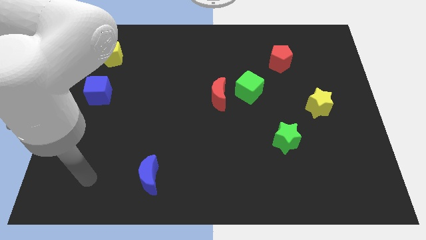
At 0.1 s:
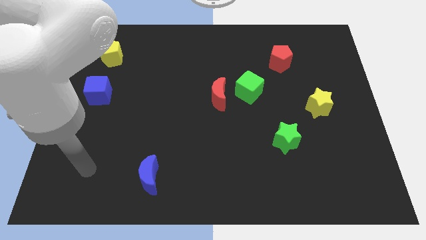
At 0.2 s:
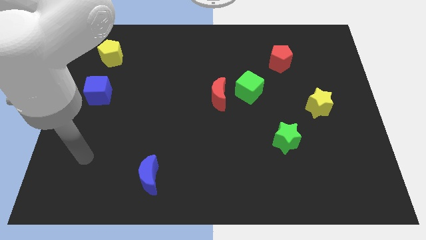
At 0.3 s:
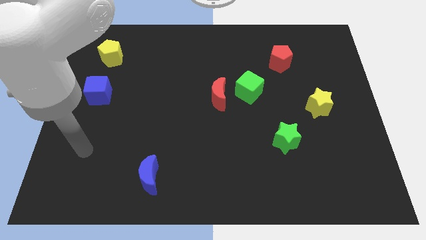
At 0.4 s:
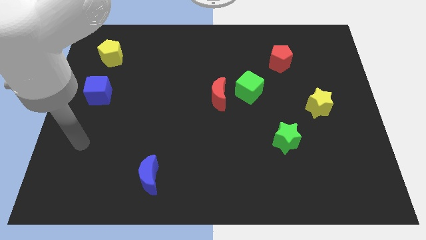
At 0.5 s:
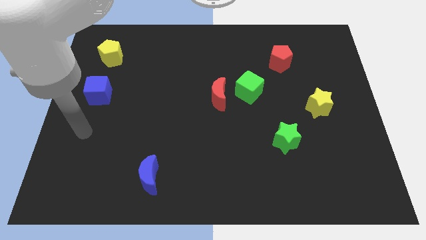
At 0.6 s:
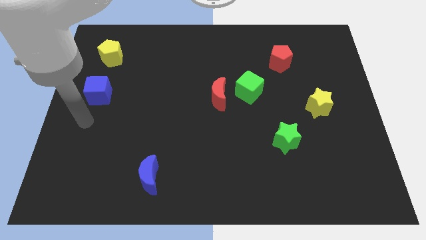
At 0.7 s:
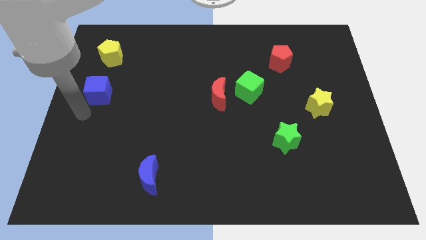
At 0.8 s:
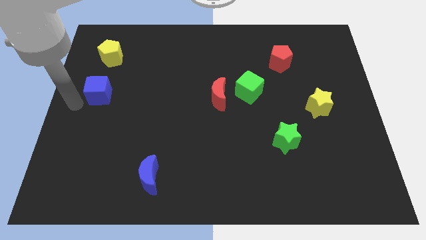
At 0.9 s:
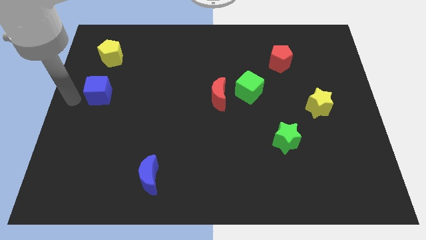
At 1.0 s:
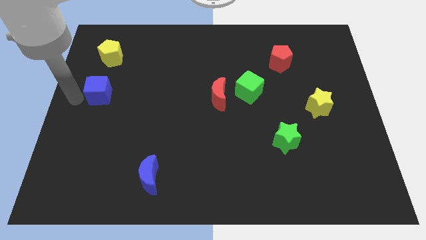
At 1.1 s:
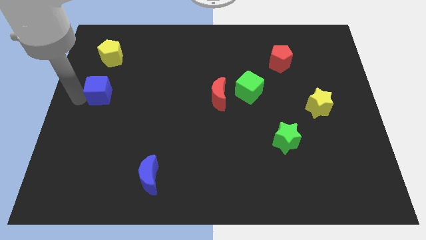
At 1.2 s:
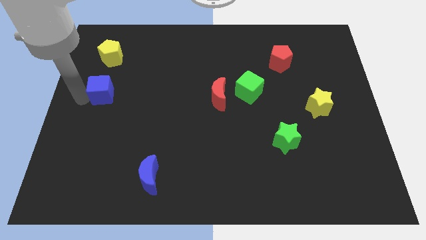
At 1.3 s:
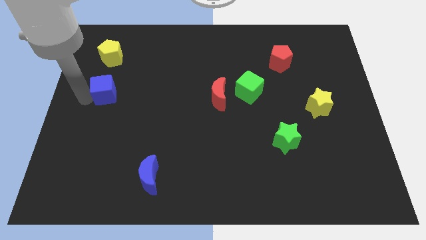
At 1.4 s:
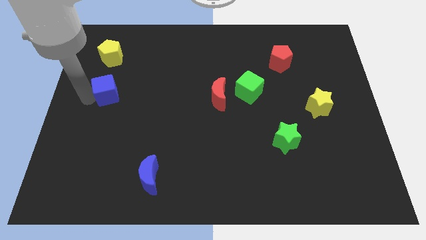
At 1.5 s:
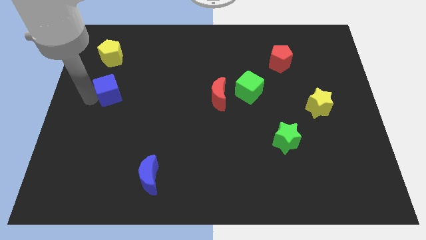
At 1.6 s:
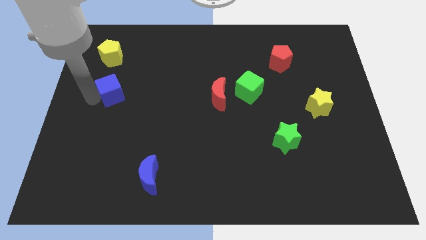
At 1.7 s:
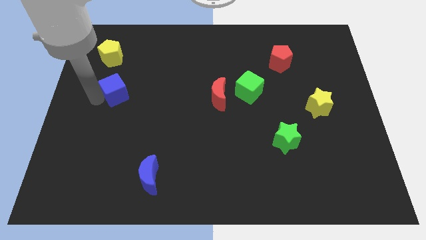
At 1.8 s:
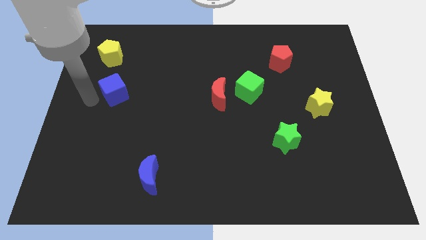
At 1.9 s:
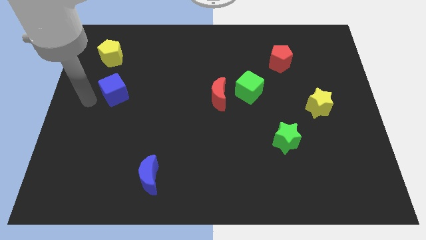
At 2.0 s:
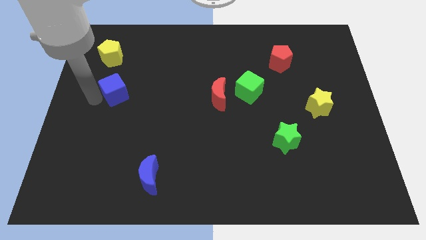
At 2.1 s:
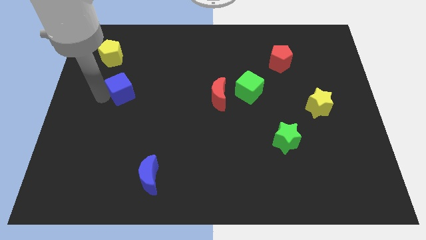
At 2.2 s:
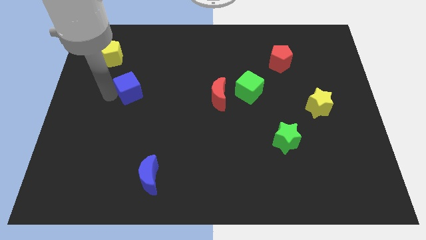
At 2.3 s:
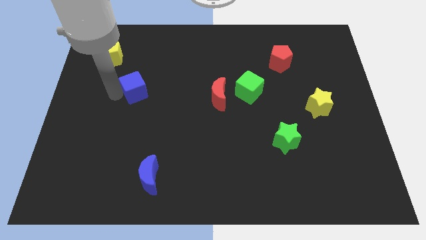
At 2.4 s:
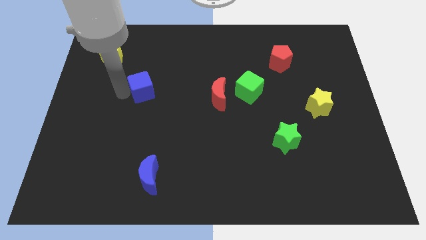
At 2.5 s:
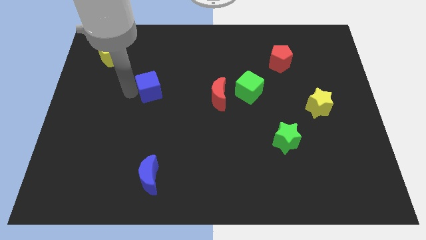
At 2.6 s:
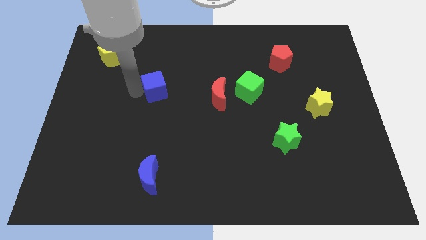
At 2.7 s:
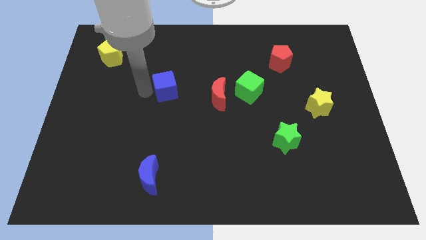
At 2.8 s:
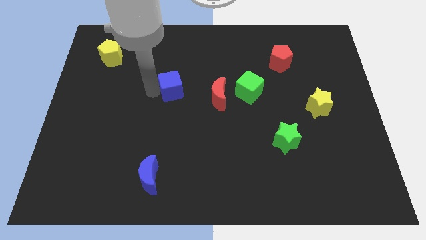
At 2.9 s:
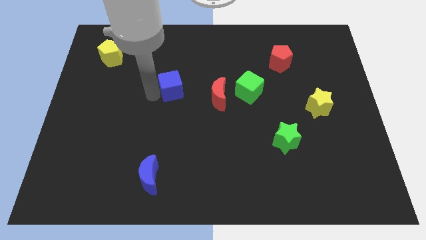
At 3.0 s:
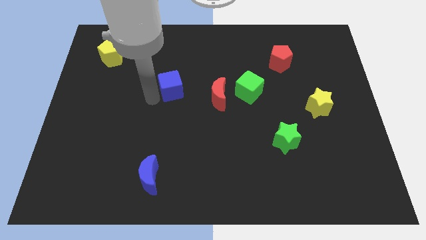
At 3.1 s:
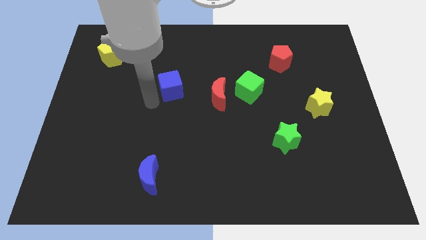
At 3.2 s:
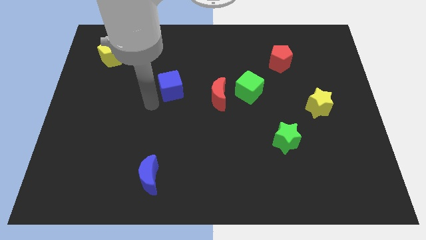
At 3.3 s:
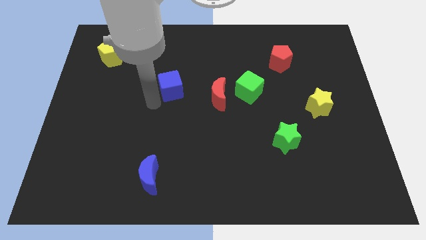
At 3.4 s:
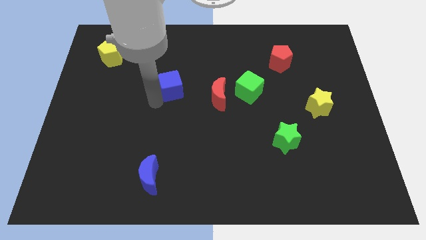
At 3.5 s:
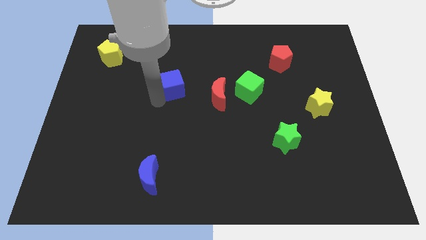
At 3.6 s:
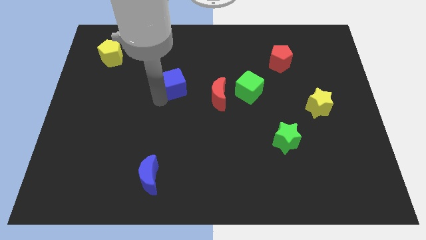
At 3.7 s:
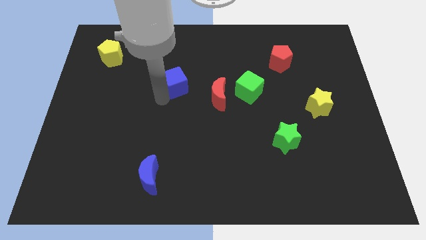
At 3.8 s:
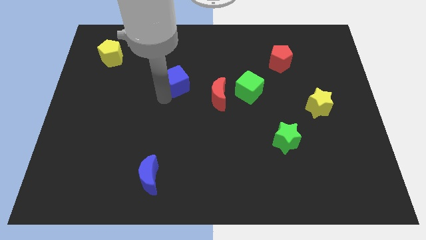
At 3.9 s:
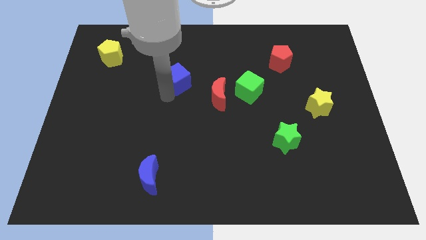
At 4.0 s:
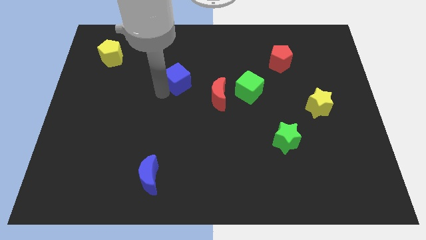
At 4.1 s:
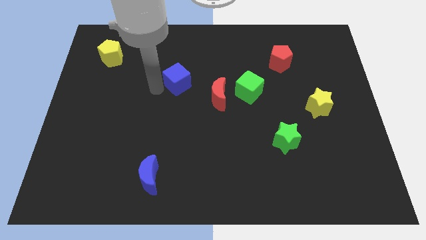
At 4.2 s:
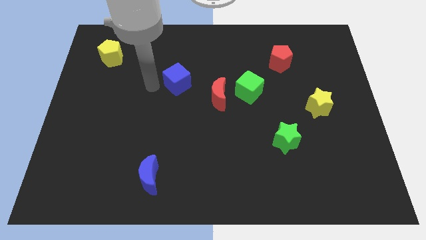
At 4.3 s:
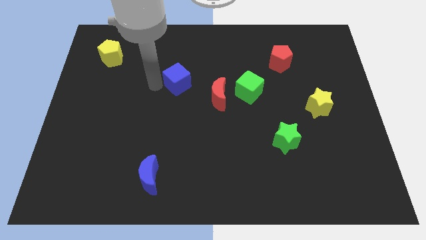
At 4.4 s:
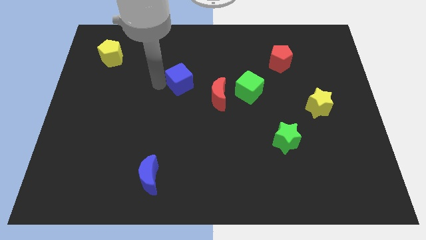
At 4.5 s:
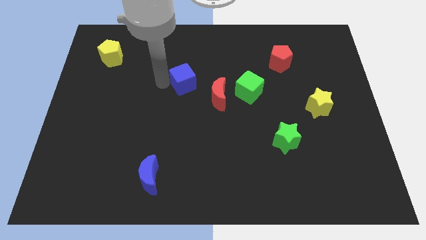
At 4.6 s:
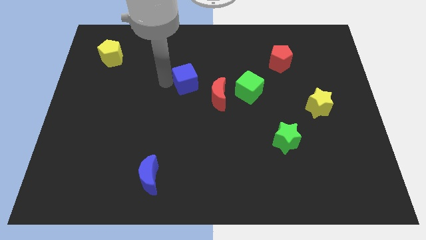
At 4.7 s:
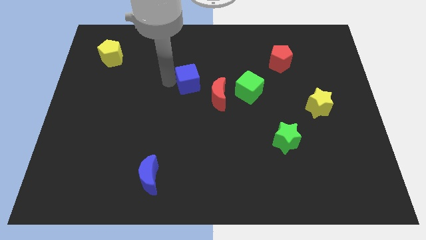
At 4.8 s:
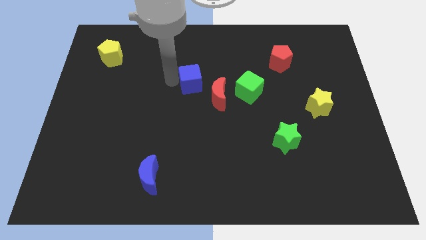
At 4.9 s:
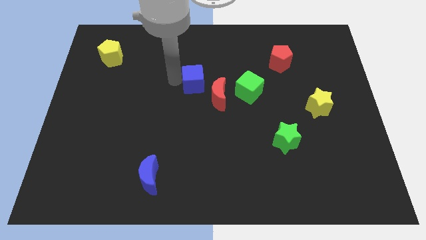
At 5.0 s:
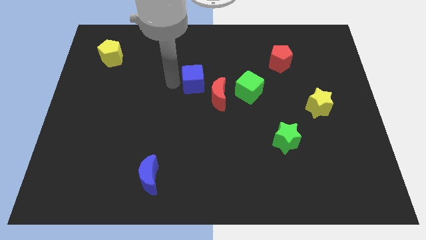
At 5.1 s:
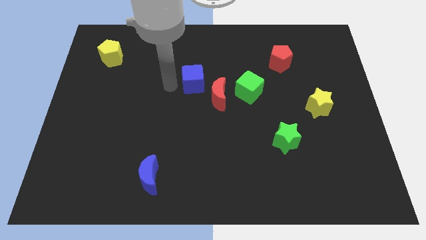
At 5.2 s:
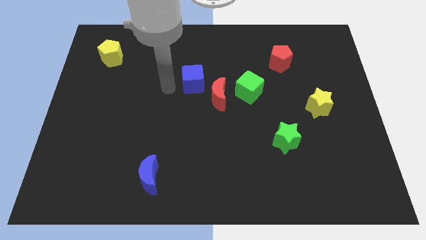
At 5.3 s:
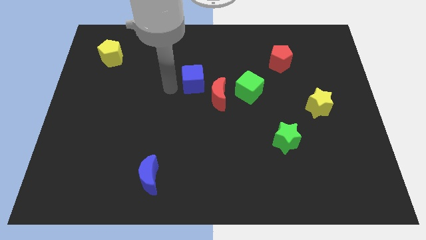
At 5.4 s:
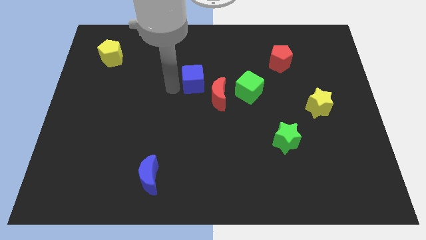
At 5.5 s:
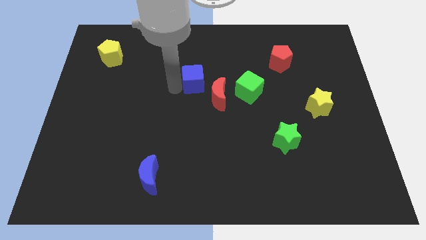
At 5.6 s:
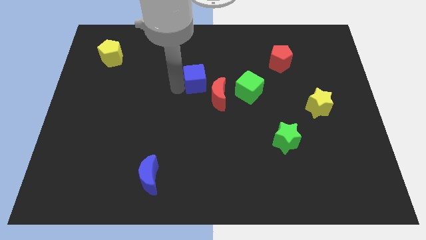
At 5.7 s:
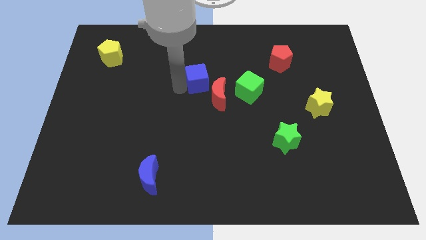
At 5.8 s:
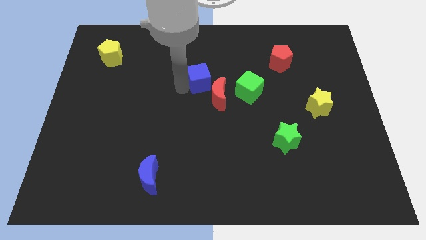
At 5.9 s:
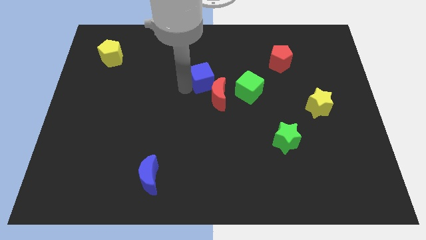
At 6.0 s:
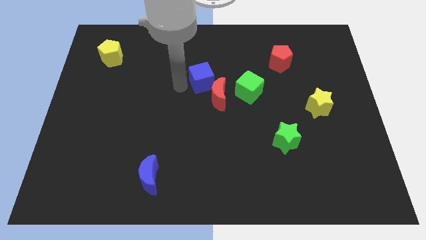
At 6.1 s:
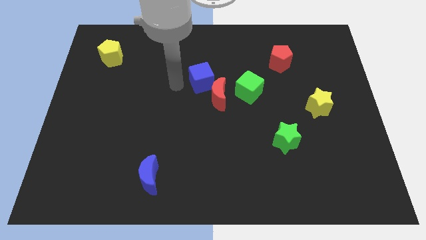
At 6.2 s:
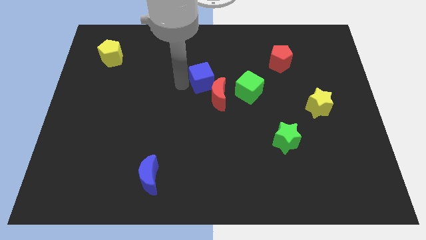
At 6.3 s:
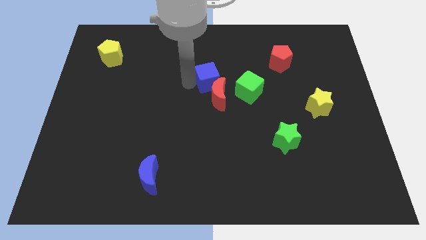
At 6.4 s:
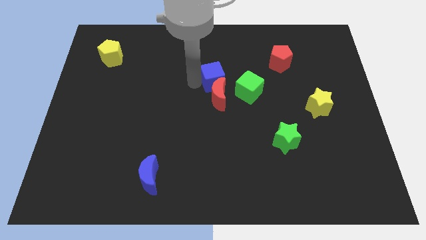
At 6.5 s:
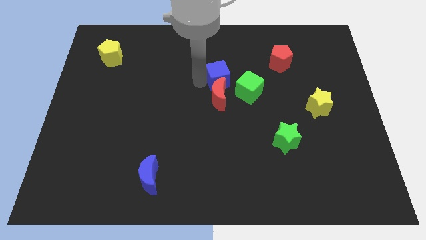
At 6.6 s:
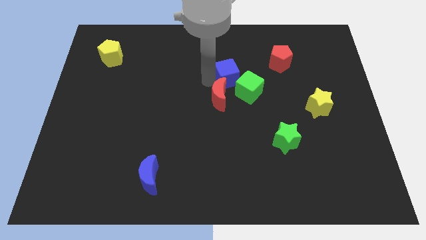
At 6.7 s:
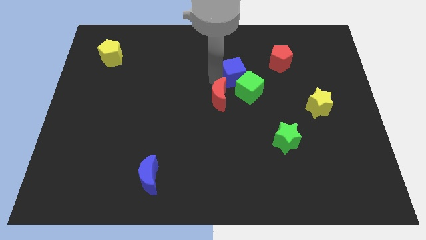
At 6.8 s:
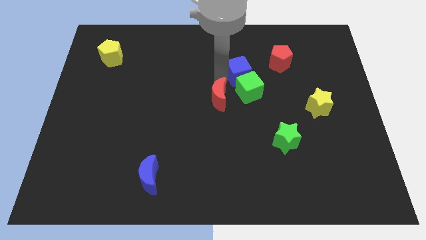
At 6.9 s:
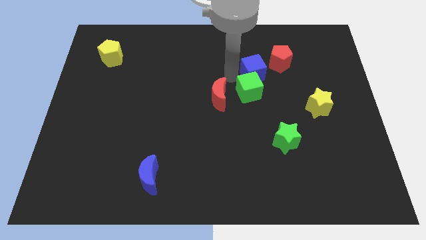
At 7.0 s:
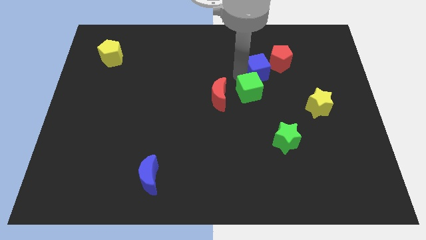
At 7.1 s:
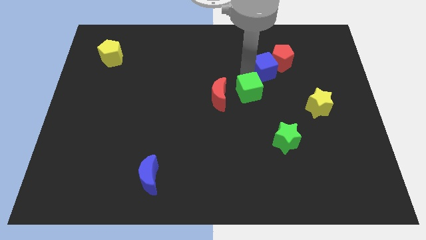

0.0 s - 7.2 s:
move the blue cube to the red pentagon

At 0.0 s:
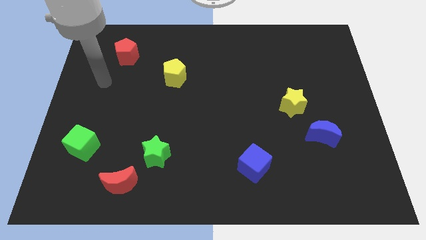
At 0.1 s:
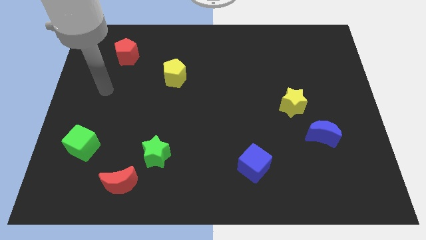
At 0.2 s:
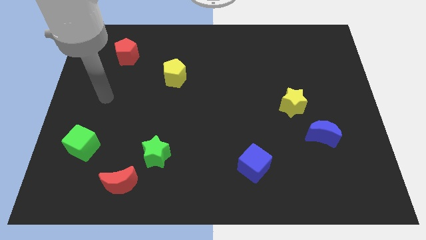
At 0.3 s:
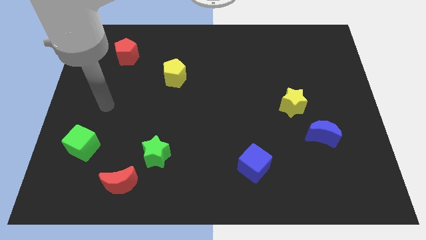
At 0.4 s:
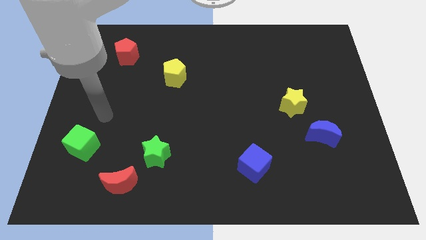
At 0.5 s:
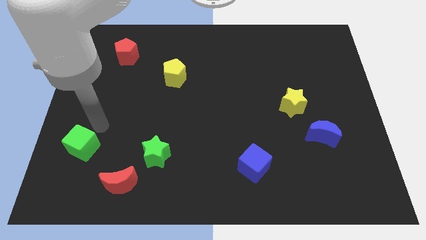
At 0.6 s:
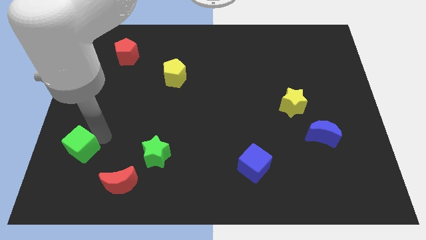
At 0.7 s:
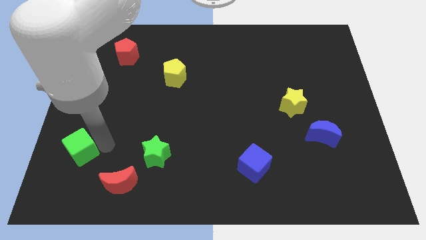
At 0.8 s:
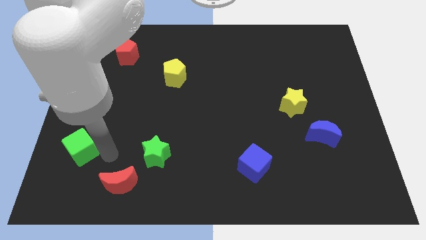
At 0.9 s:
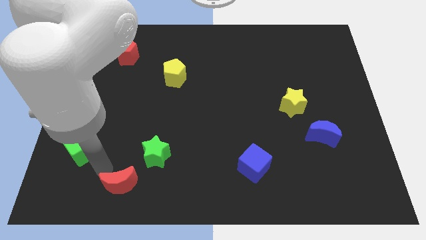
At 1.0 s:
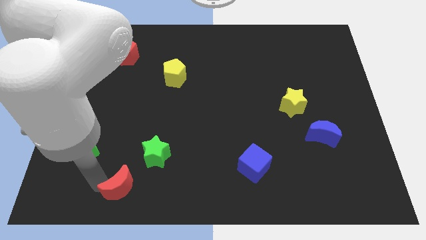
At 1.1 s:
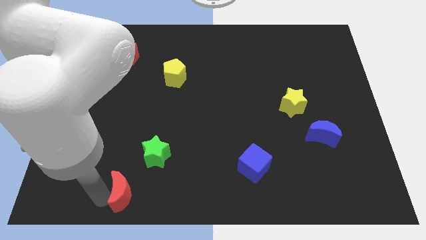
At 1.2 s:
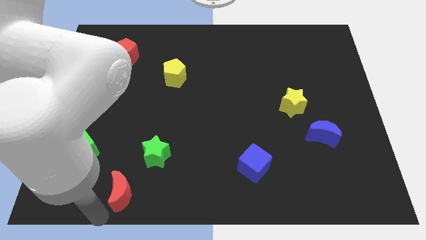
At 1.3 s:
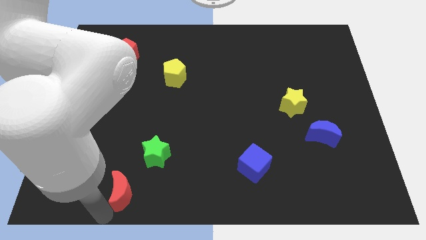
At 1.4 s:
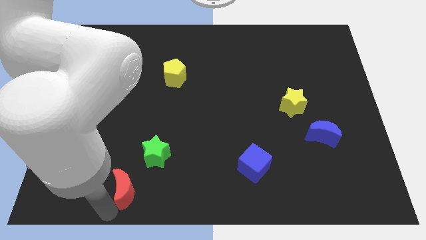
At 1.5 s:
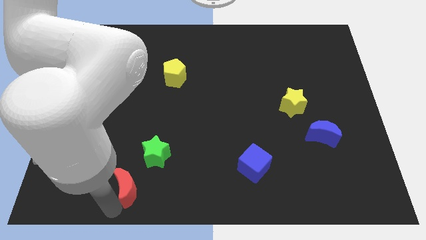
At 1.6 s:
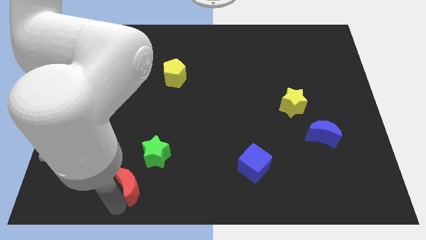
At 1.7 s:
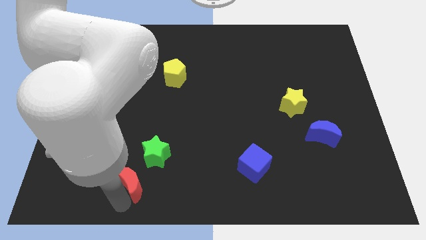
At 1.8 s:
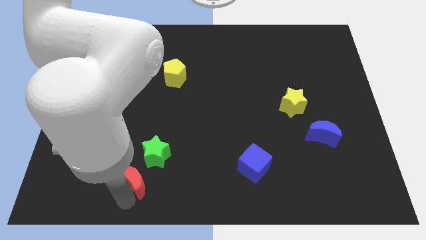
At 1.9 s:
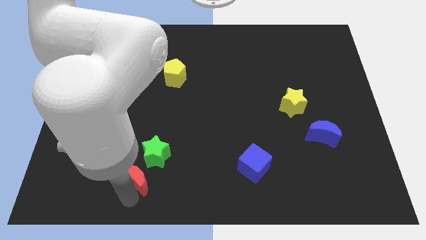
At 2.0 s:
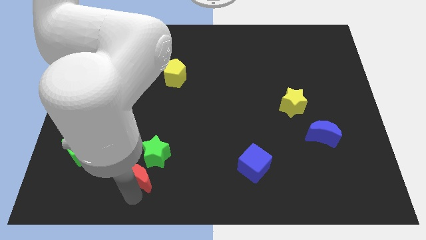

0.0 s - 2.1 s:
push the red moon towards the green star
